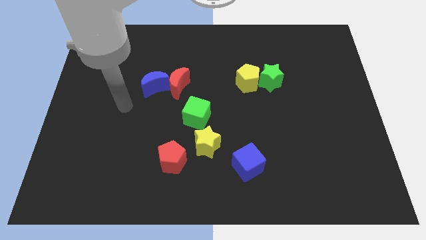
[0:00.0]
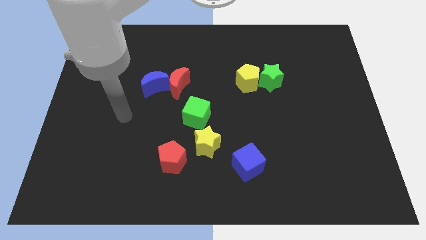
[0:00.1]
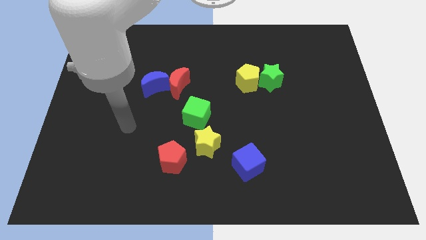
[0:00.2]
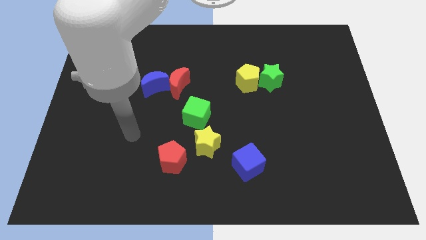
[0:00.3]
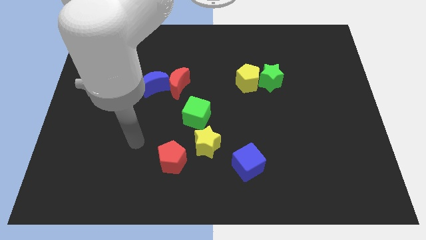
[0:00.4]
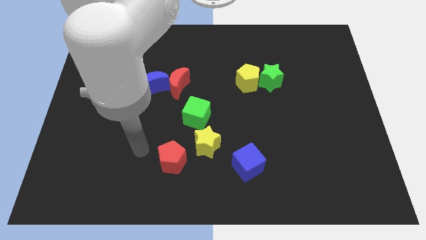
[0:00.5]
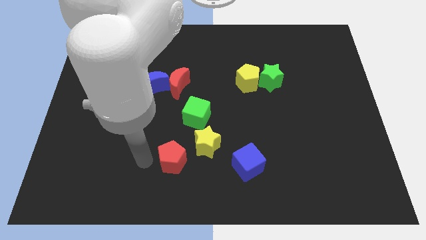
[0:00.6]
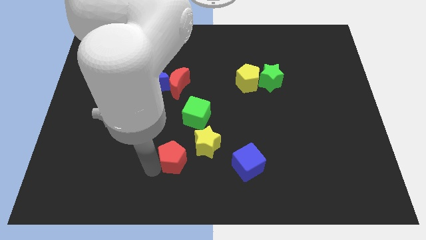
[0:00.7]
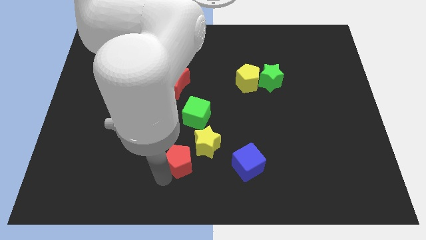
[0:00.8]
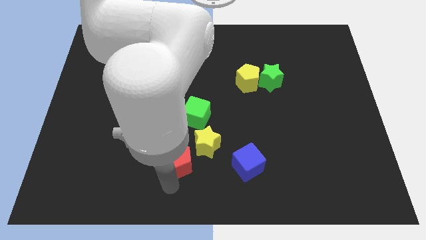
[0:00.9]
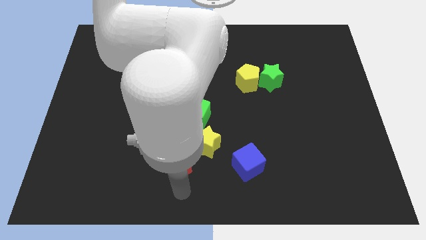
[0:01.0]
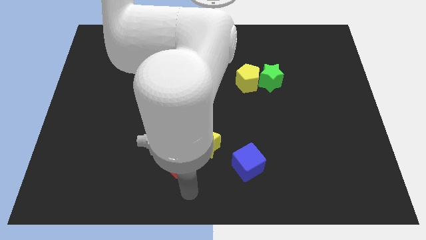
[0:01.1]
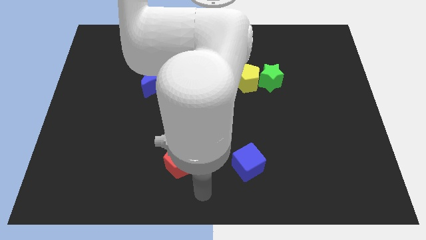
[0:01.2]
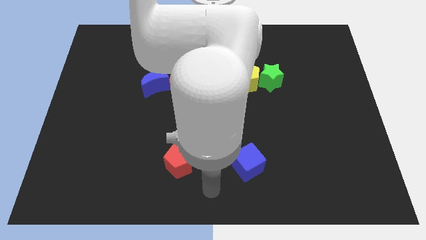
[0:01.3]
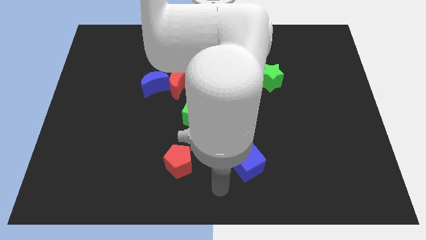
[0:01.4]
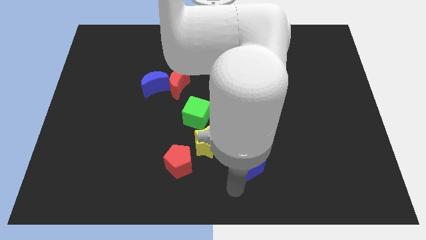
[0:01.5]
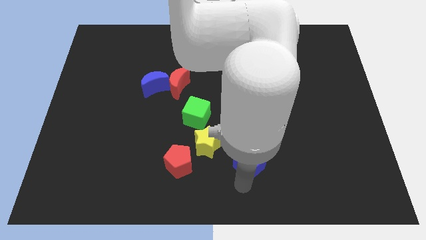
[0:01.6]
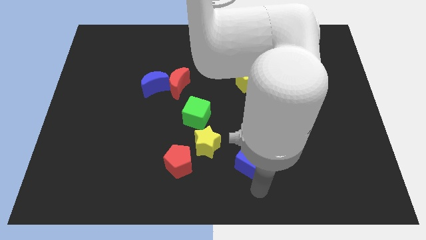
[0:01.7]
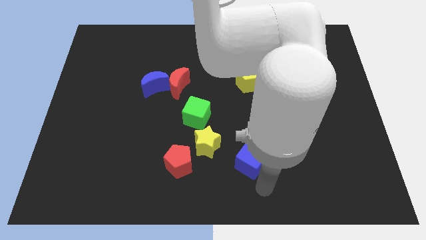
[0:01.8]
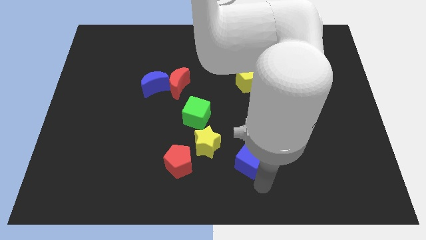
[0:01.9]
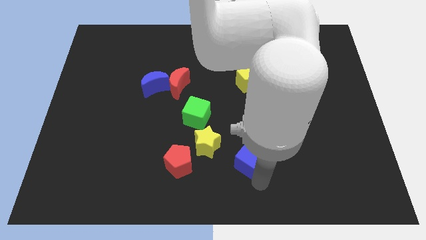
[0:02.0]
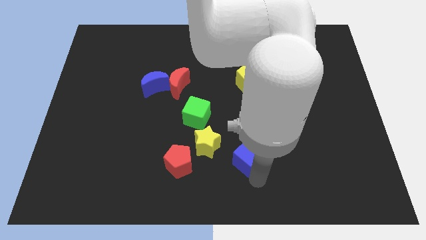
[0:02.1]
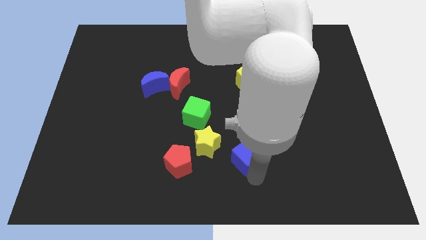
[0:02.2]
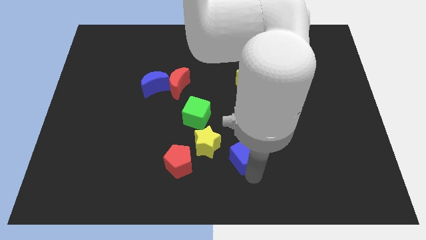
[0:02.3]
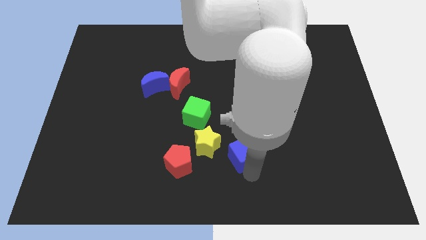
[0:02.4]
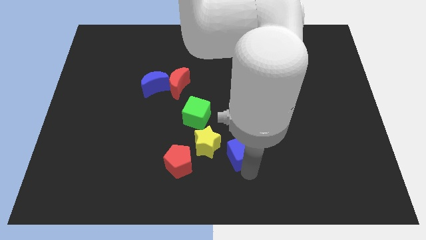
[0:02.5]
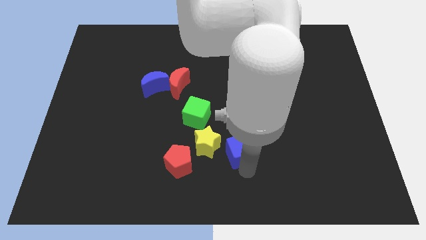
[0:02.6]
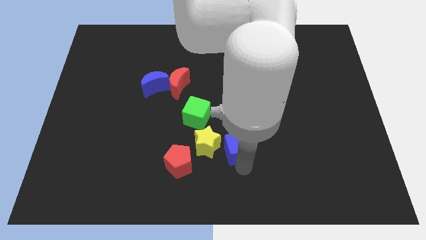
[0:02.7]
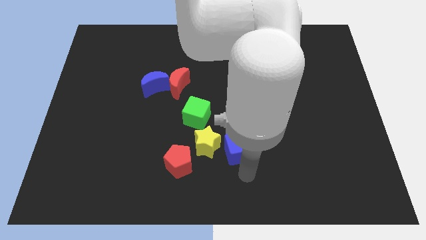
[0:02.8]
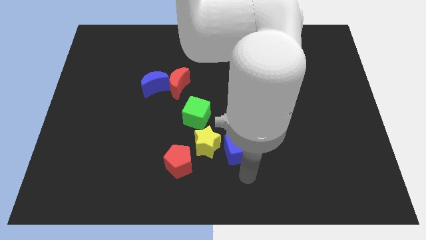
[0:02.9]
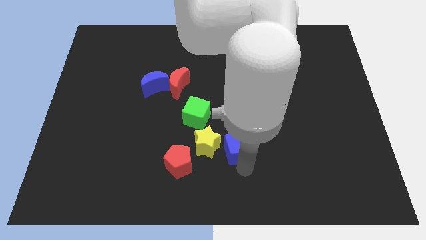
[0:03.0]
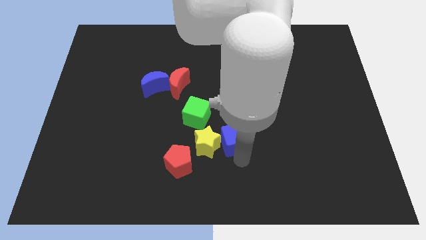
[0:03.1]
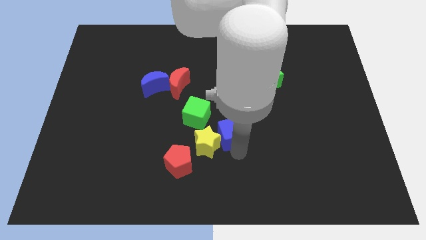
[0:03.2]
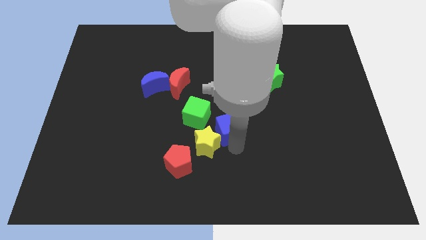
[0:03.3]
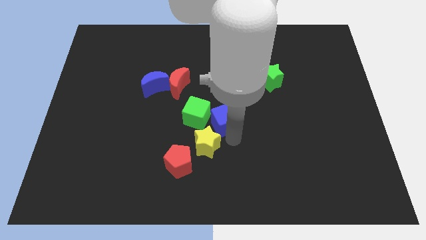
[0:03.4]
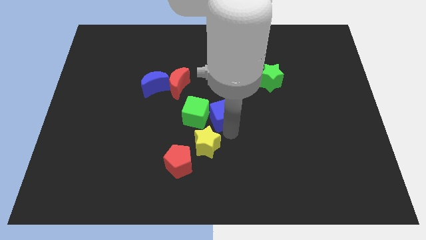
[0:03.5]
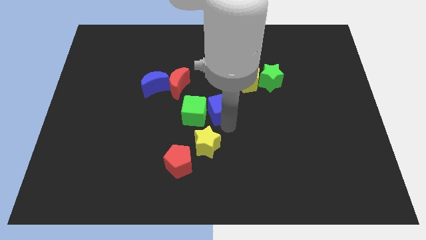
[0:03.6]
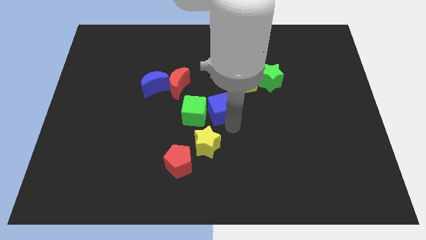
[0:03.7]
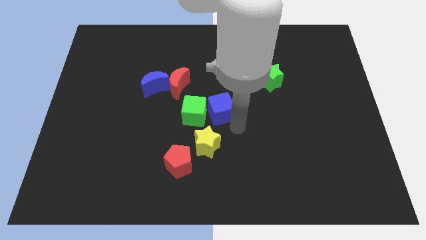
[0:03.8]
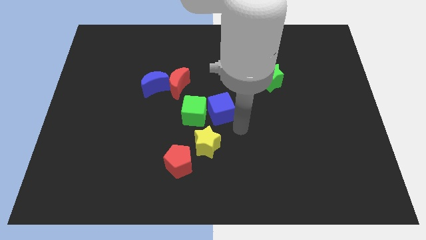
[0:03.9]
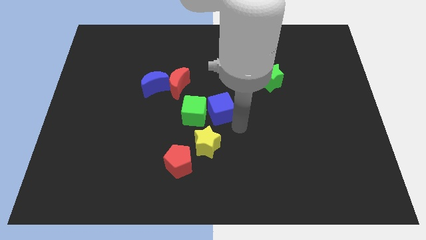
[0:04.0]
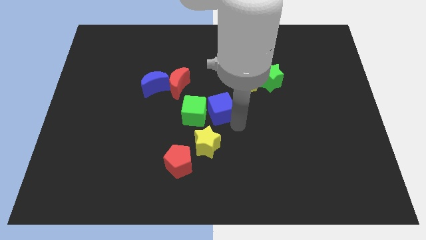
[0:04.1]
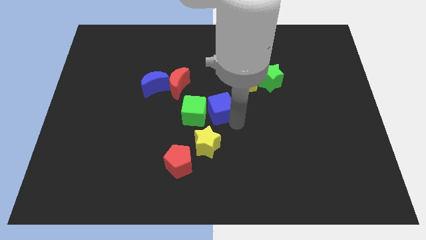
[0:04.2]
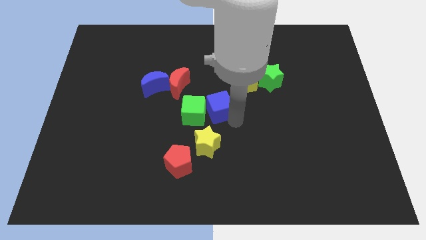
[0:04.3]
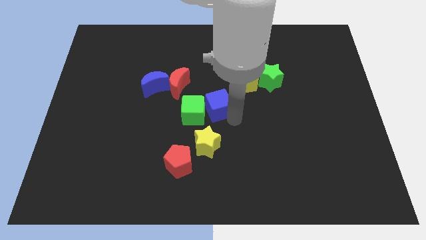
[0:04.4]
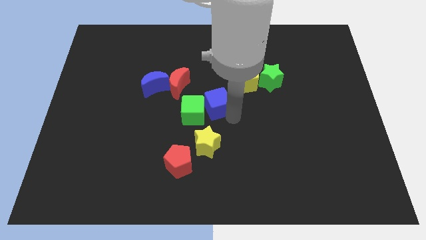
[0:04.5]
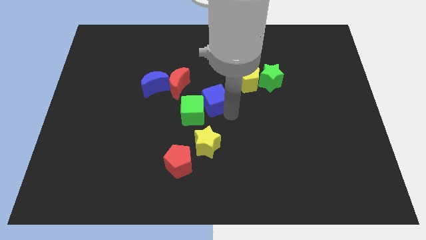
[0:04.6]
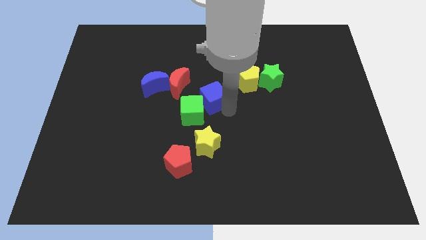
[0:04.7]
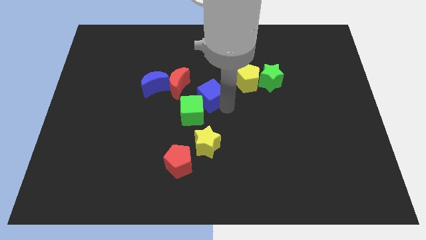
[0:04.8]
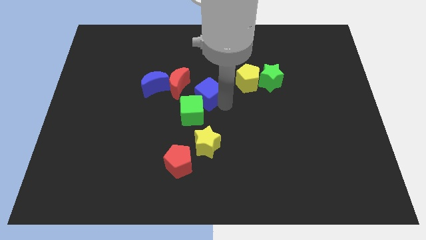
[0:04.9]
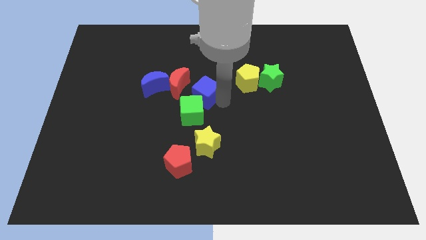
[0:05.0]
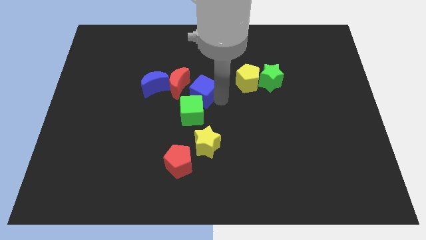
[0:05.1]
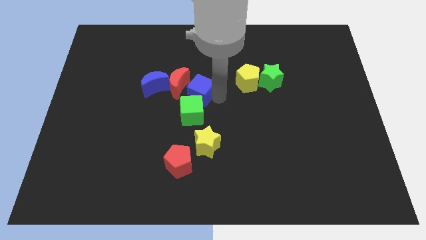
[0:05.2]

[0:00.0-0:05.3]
move the blue cube next to the red moon

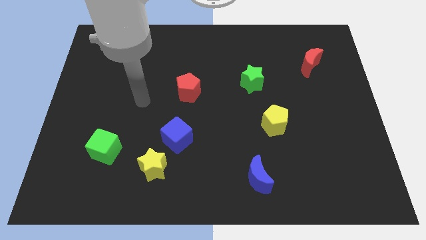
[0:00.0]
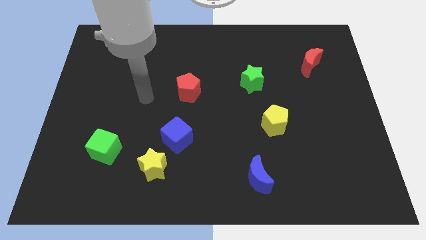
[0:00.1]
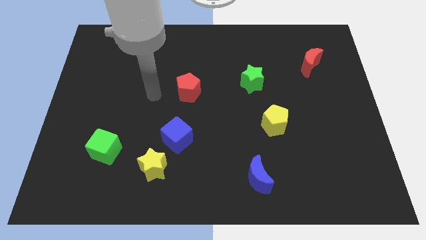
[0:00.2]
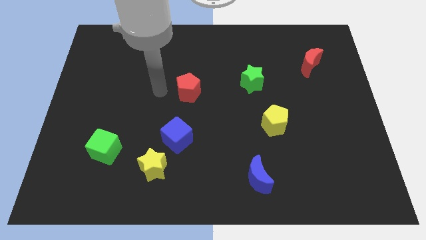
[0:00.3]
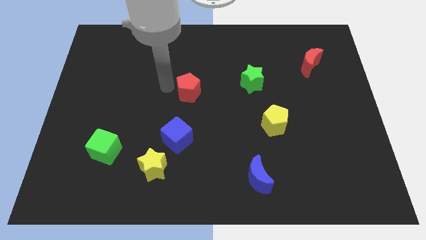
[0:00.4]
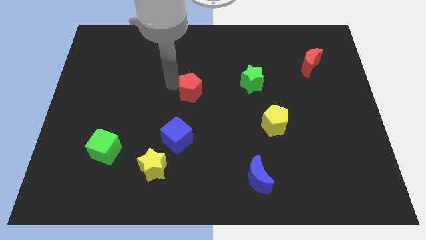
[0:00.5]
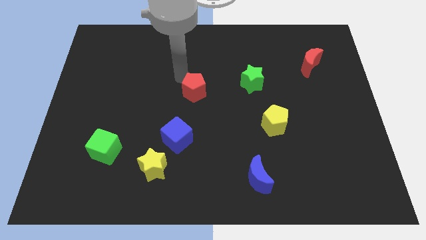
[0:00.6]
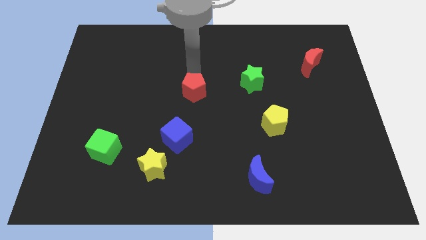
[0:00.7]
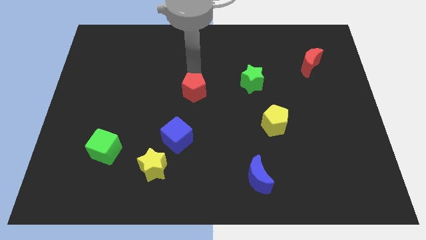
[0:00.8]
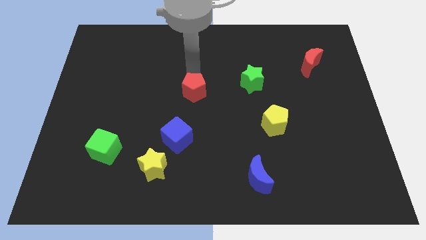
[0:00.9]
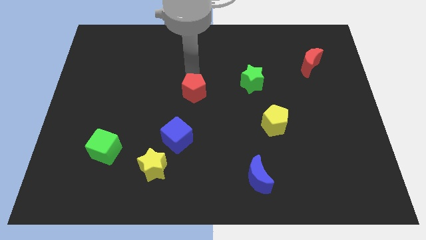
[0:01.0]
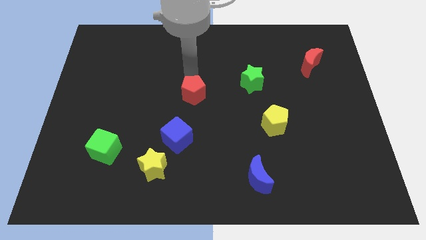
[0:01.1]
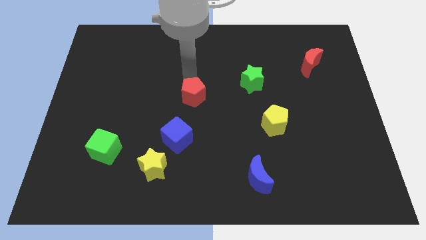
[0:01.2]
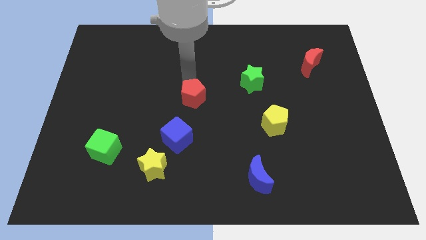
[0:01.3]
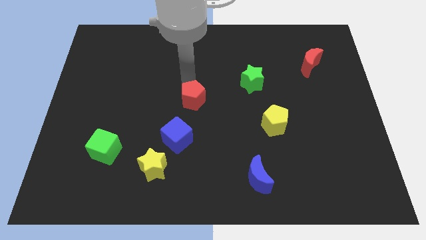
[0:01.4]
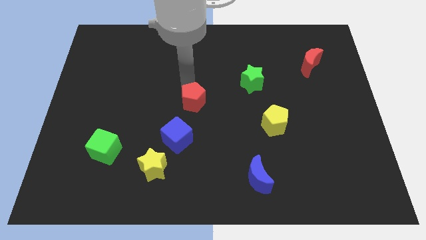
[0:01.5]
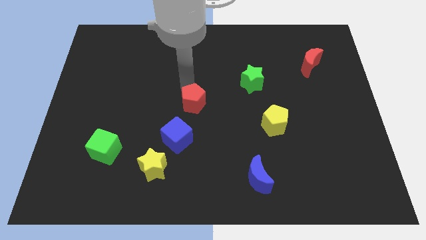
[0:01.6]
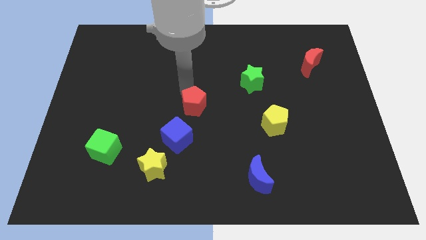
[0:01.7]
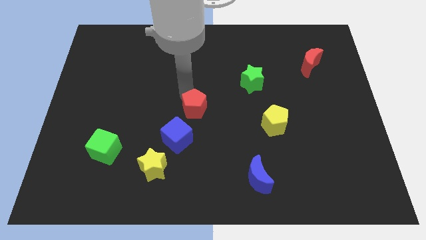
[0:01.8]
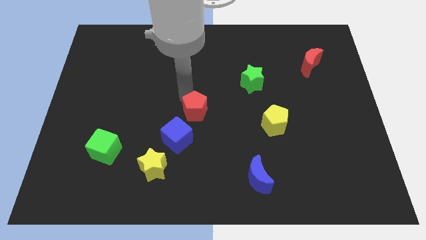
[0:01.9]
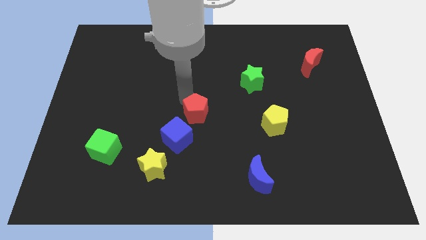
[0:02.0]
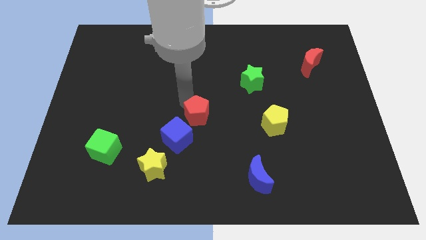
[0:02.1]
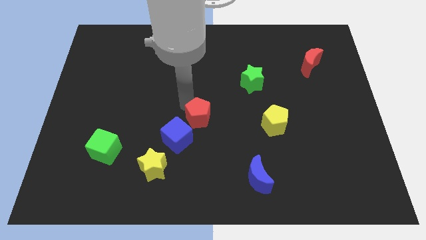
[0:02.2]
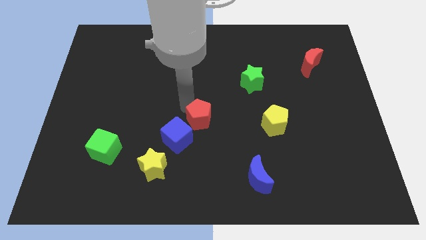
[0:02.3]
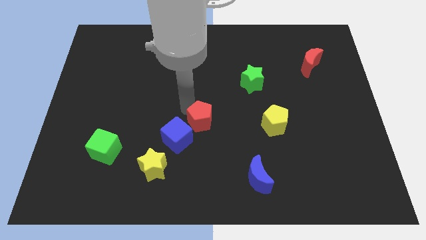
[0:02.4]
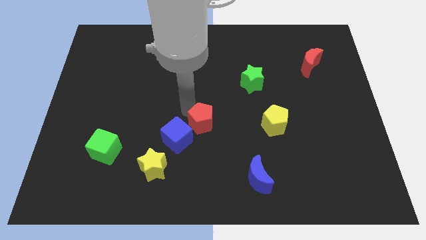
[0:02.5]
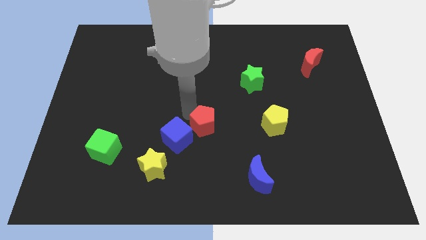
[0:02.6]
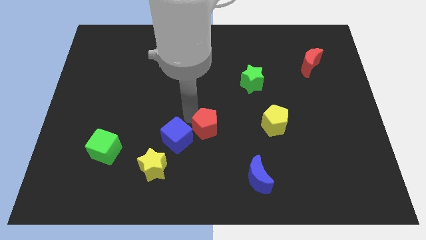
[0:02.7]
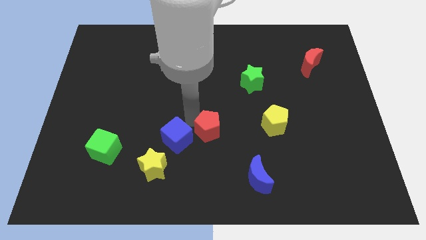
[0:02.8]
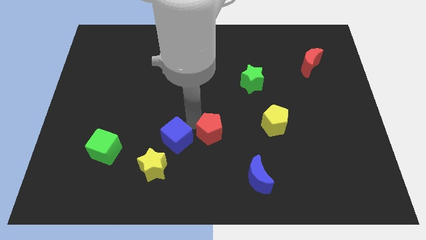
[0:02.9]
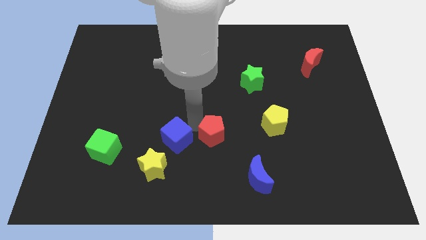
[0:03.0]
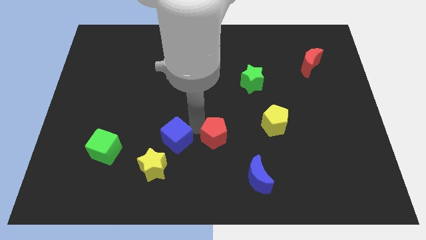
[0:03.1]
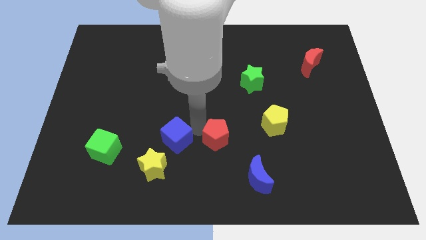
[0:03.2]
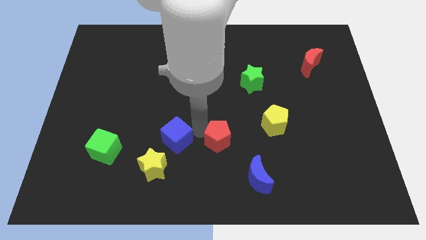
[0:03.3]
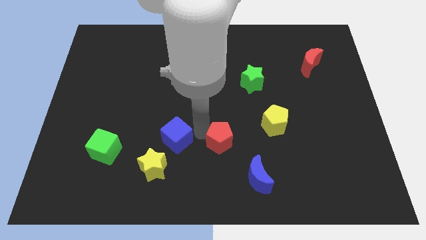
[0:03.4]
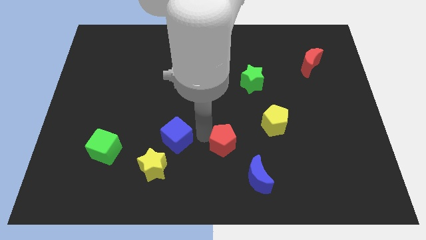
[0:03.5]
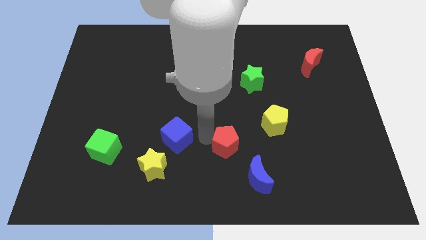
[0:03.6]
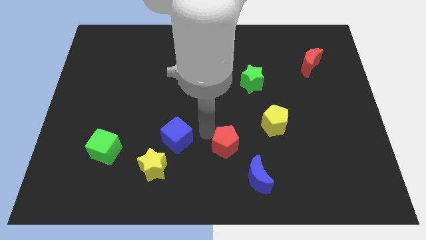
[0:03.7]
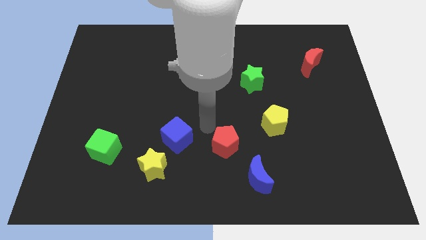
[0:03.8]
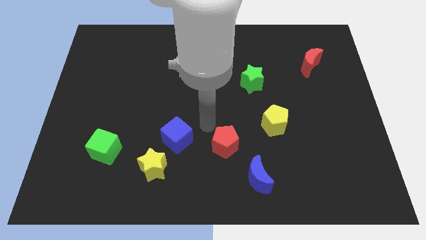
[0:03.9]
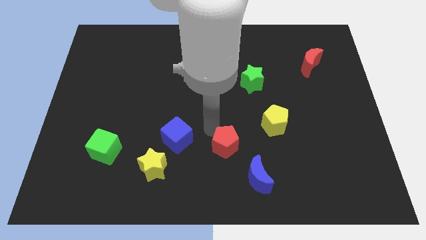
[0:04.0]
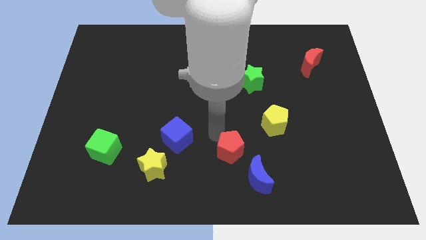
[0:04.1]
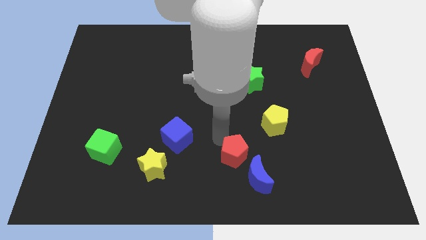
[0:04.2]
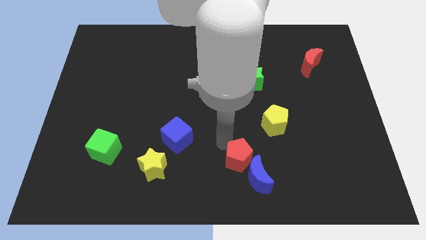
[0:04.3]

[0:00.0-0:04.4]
push the red pentagon close to the blue moon
